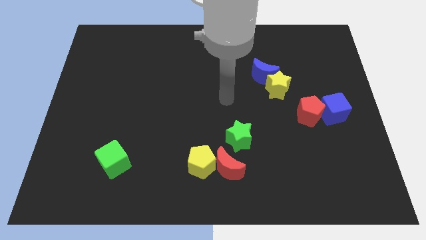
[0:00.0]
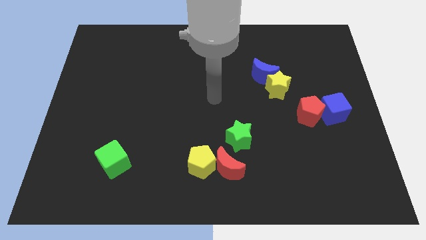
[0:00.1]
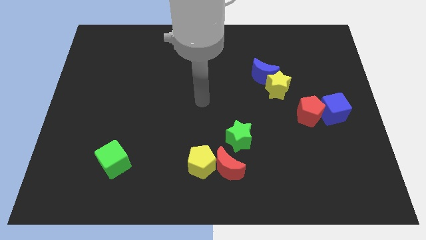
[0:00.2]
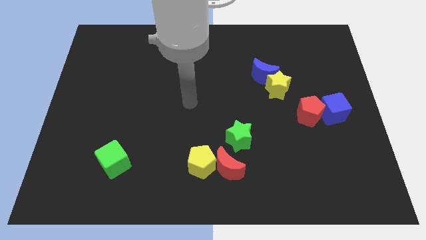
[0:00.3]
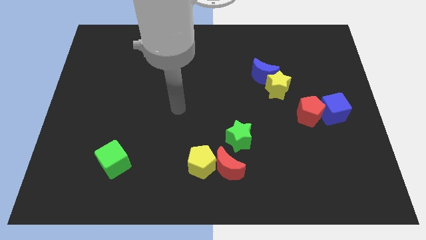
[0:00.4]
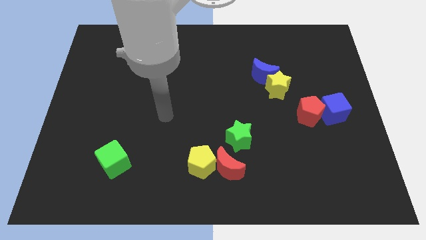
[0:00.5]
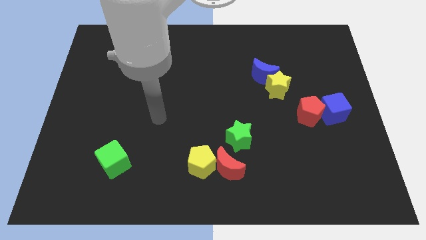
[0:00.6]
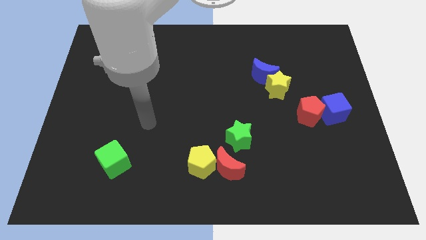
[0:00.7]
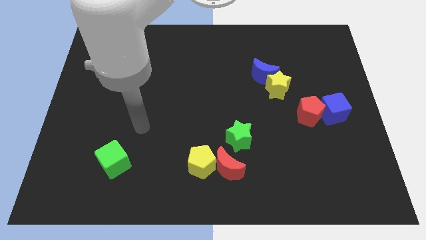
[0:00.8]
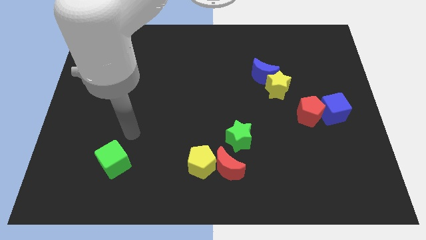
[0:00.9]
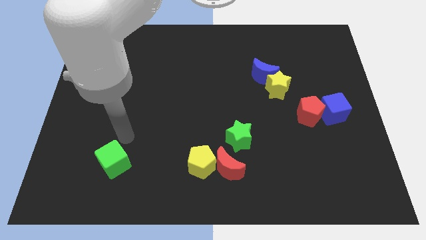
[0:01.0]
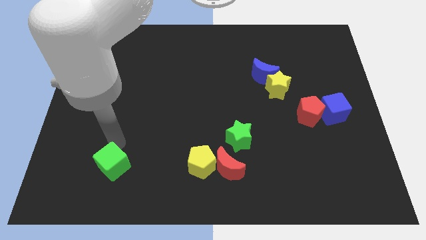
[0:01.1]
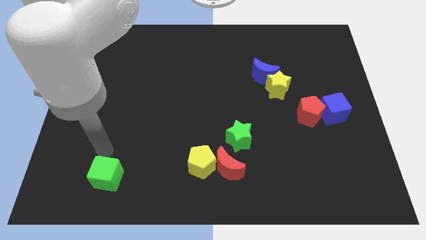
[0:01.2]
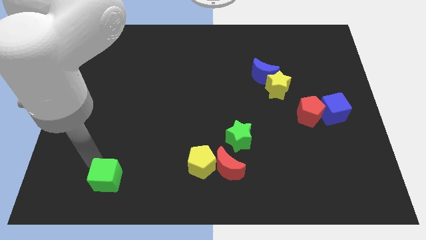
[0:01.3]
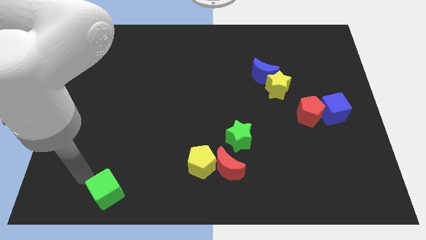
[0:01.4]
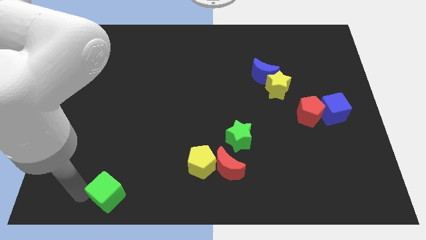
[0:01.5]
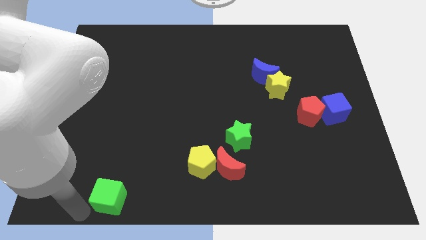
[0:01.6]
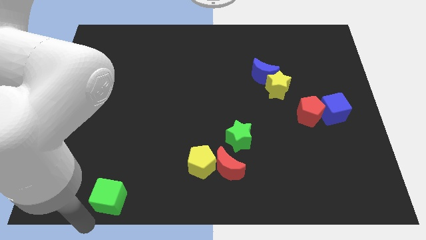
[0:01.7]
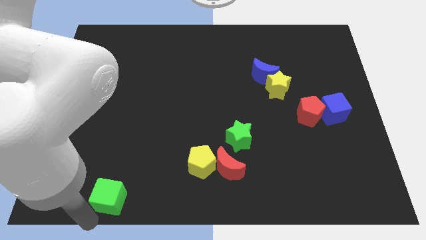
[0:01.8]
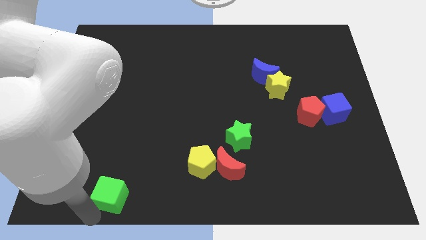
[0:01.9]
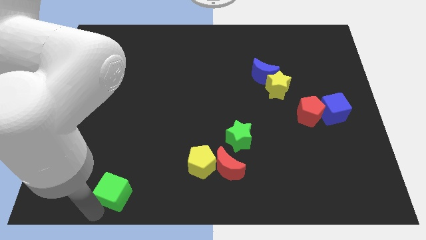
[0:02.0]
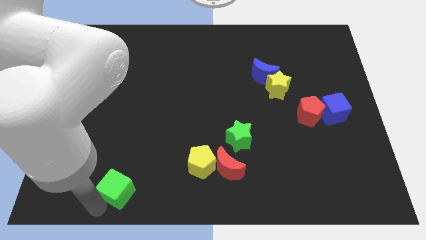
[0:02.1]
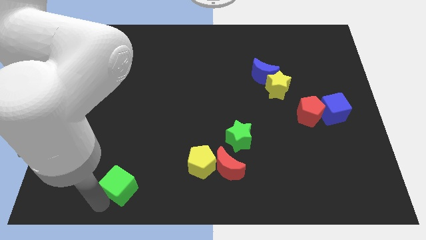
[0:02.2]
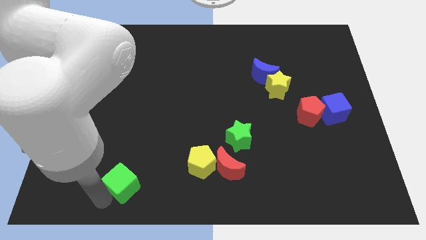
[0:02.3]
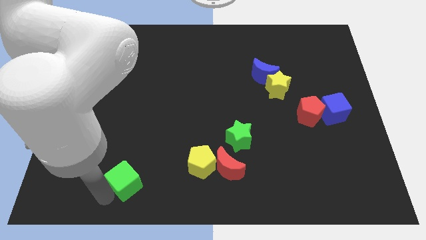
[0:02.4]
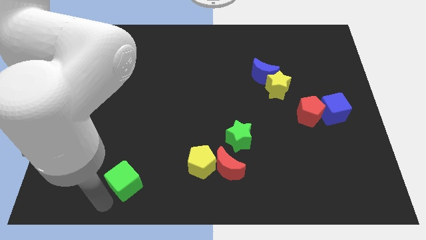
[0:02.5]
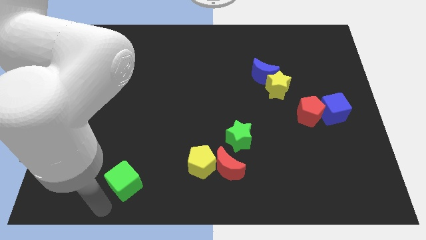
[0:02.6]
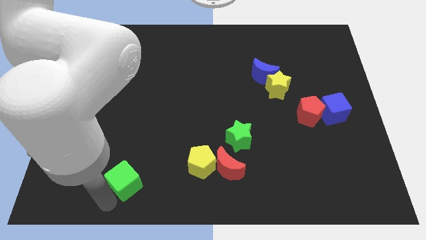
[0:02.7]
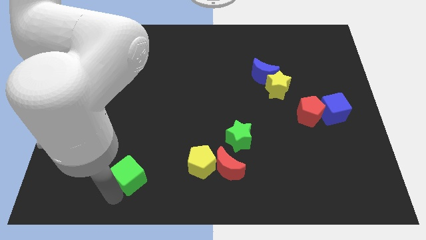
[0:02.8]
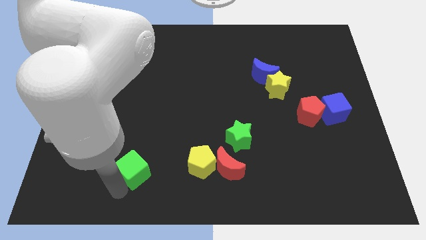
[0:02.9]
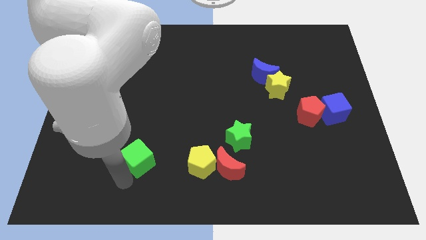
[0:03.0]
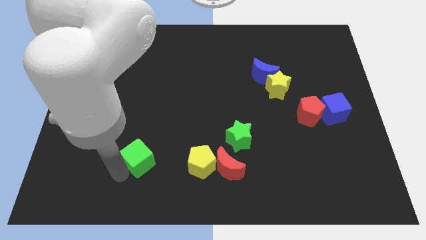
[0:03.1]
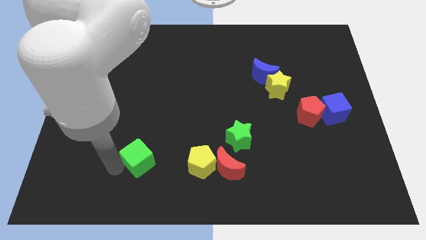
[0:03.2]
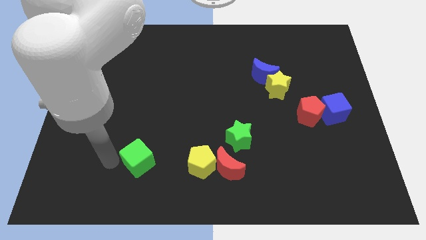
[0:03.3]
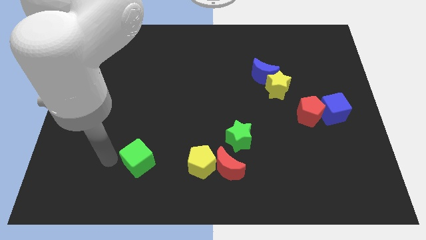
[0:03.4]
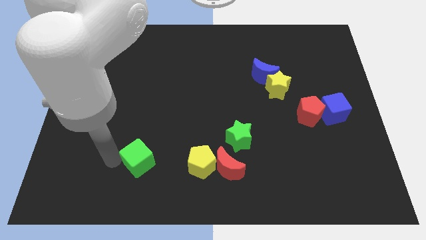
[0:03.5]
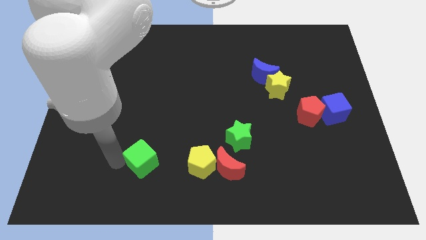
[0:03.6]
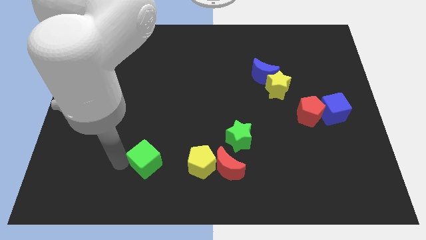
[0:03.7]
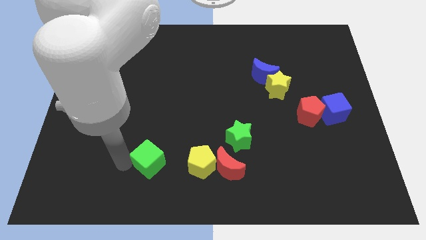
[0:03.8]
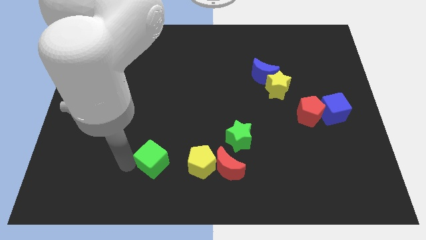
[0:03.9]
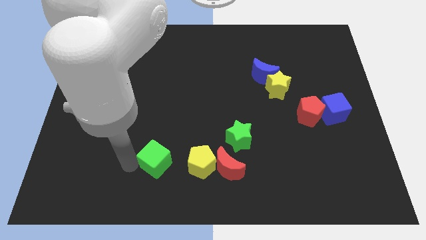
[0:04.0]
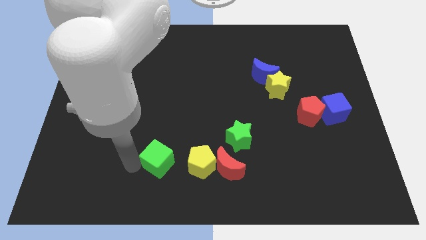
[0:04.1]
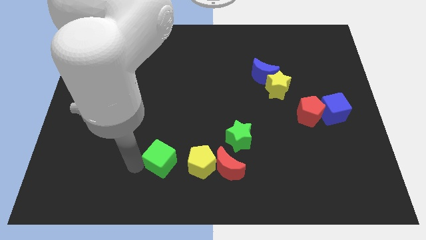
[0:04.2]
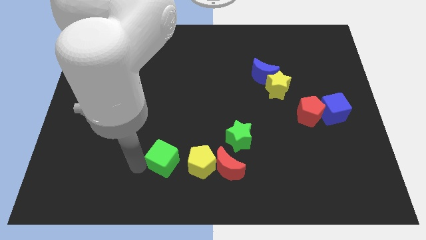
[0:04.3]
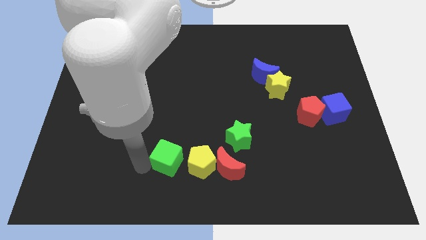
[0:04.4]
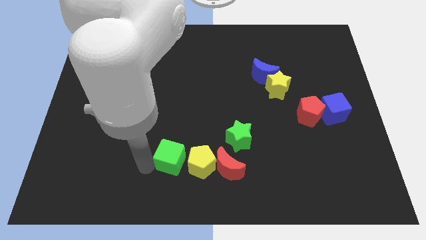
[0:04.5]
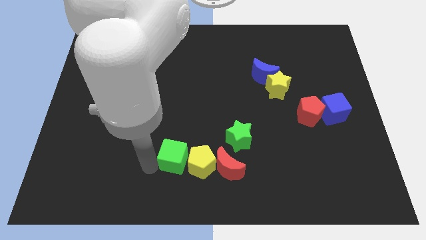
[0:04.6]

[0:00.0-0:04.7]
move the green cube close to the yellow pentagon

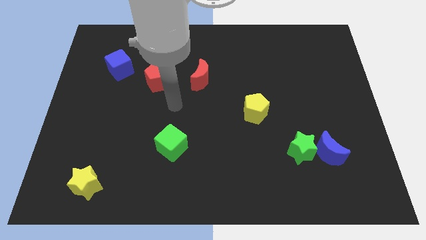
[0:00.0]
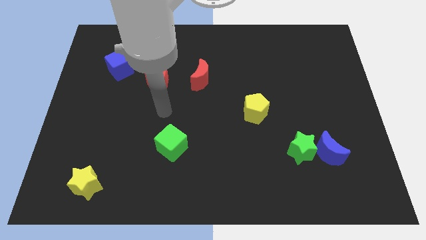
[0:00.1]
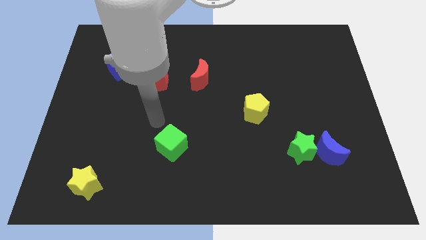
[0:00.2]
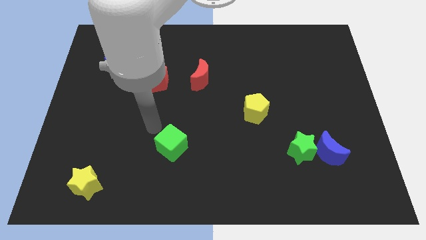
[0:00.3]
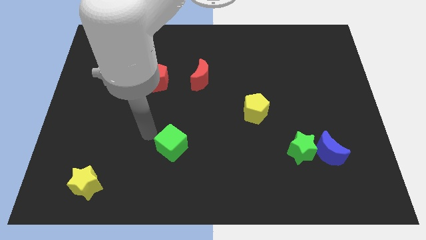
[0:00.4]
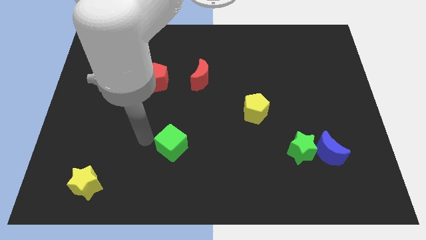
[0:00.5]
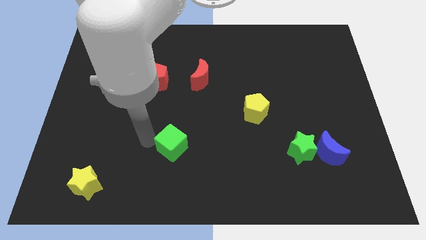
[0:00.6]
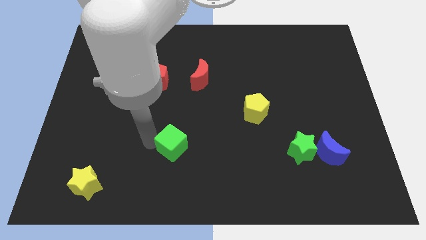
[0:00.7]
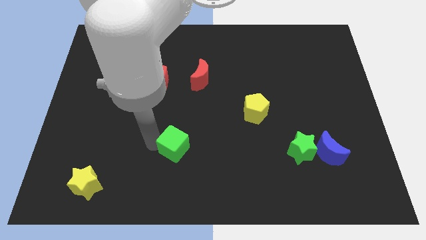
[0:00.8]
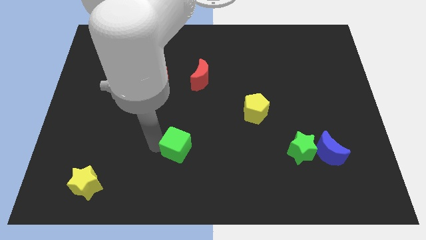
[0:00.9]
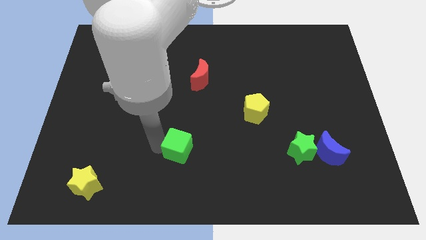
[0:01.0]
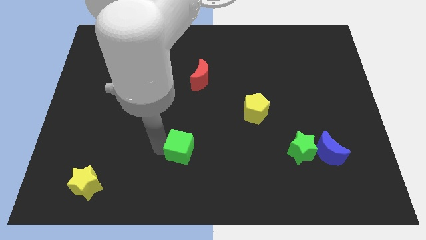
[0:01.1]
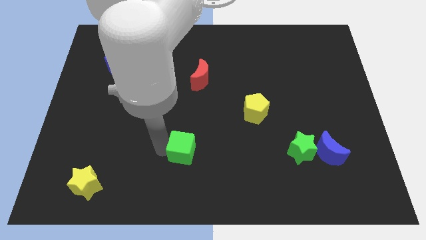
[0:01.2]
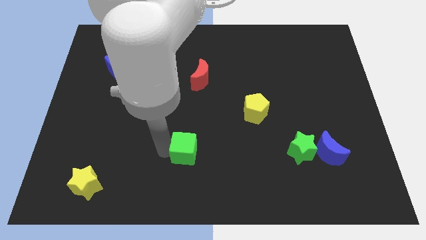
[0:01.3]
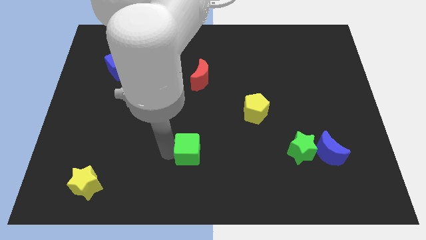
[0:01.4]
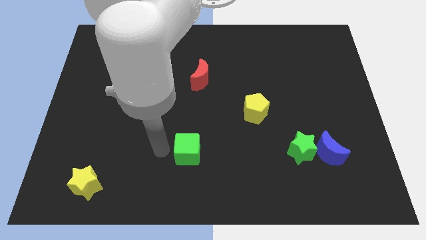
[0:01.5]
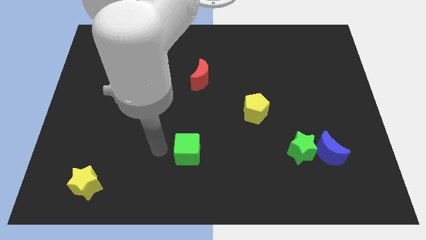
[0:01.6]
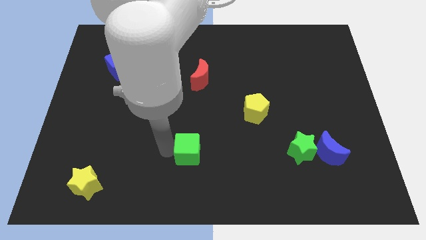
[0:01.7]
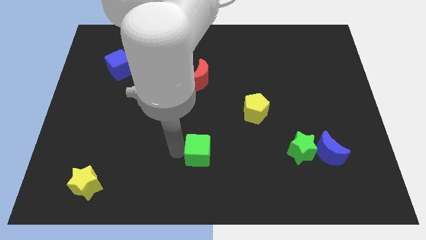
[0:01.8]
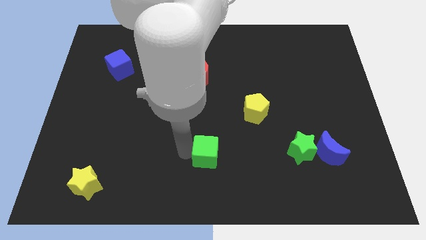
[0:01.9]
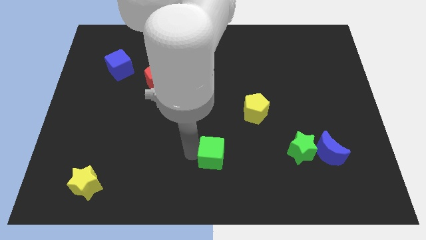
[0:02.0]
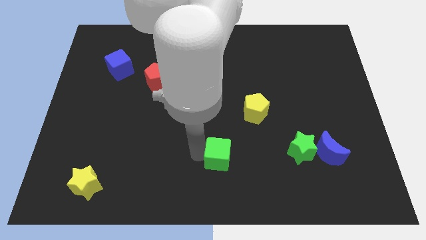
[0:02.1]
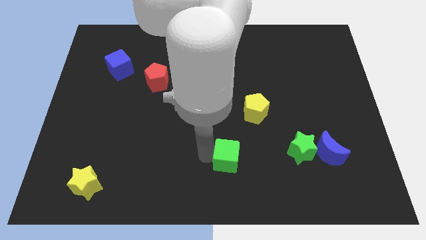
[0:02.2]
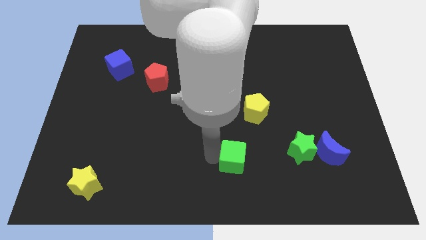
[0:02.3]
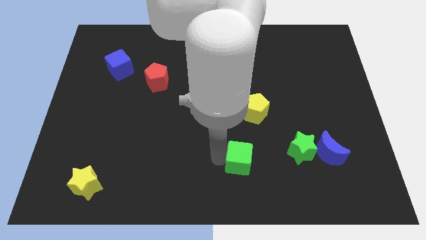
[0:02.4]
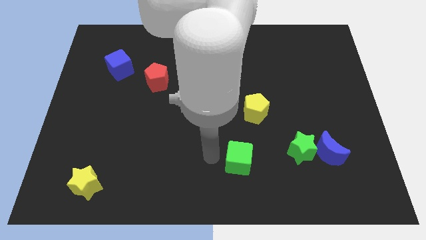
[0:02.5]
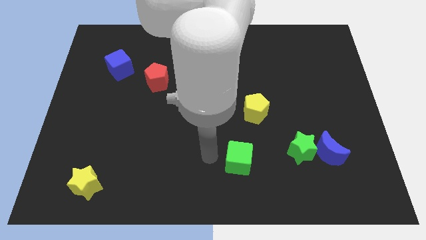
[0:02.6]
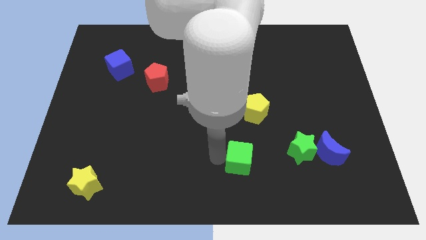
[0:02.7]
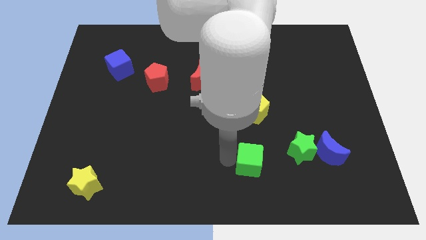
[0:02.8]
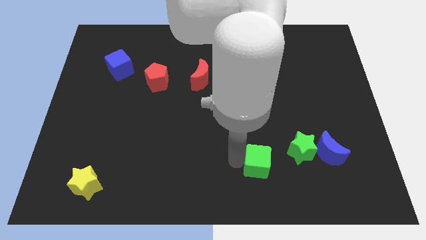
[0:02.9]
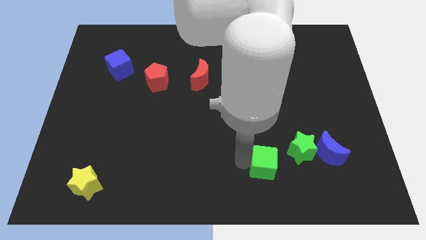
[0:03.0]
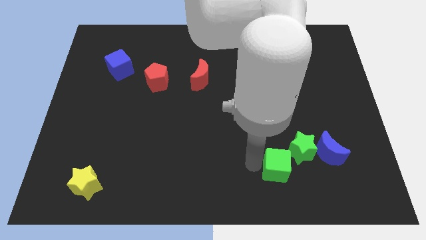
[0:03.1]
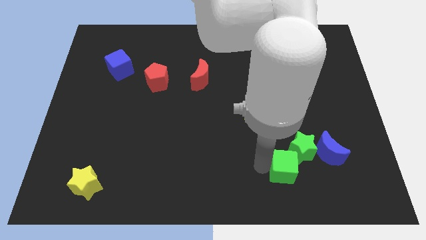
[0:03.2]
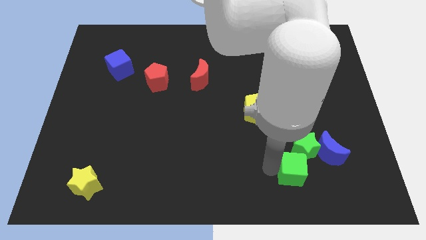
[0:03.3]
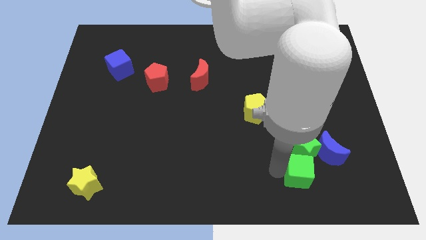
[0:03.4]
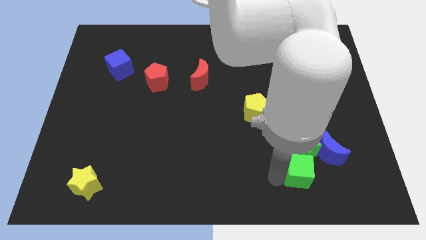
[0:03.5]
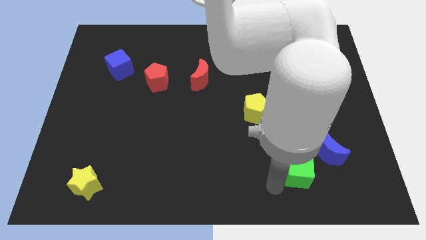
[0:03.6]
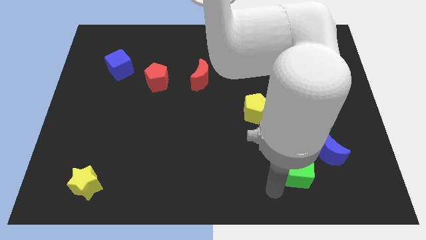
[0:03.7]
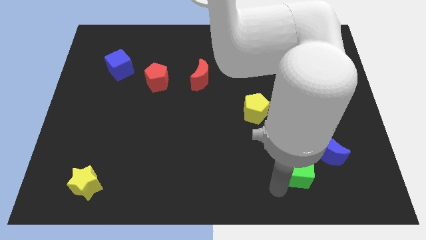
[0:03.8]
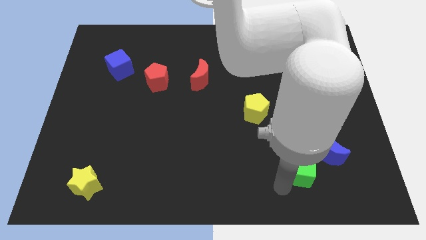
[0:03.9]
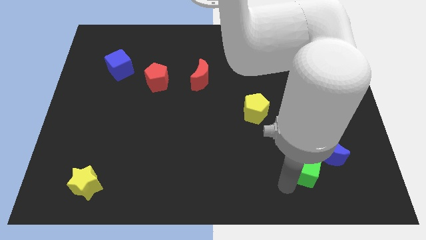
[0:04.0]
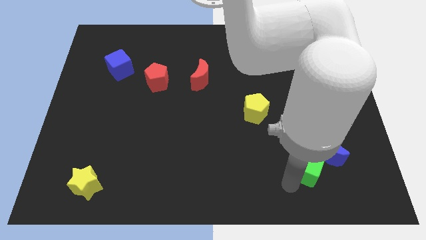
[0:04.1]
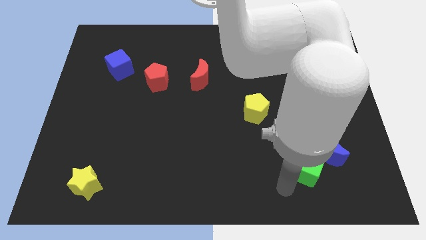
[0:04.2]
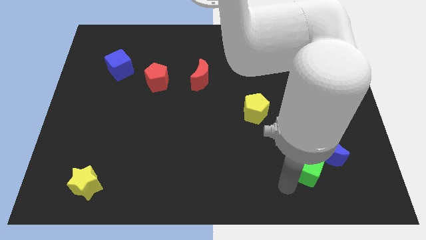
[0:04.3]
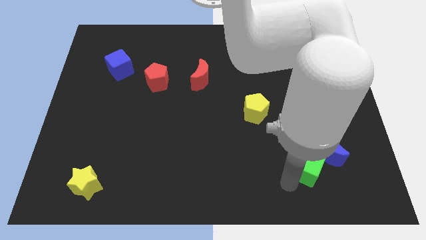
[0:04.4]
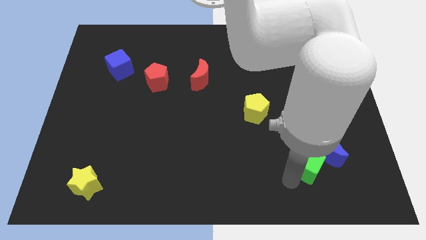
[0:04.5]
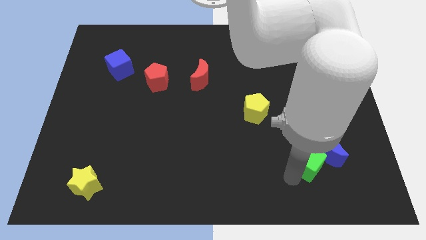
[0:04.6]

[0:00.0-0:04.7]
move the green cube to the blue moon
